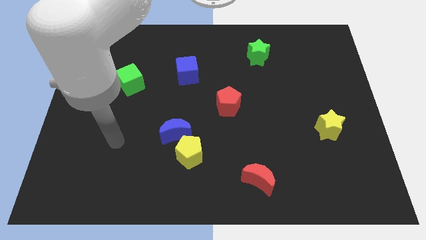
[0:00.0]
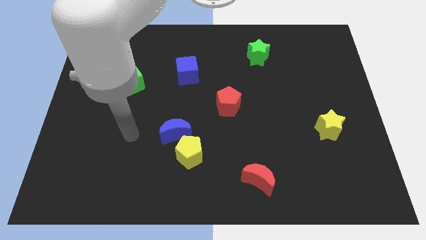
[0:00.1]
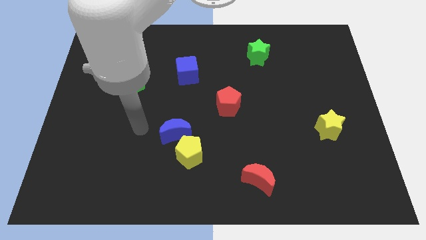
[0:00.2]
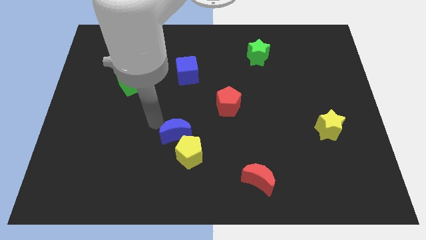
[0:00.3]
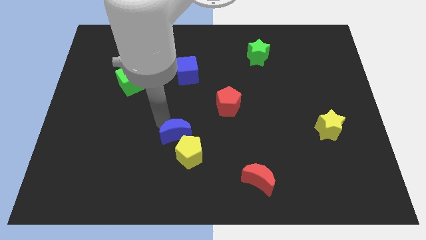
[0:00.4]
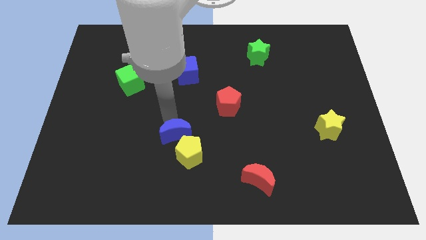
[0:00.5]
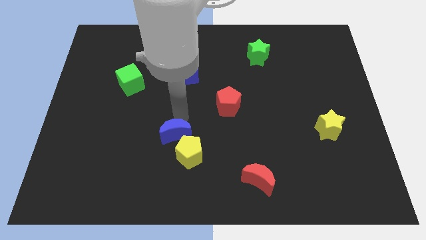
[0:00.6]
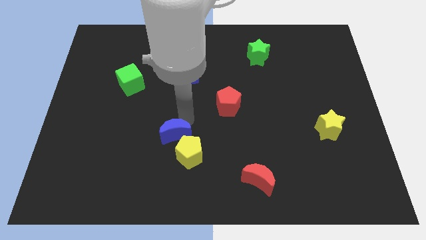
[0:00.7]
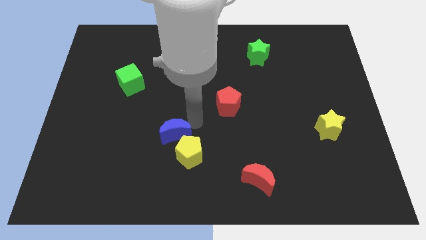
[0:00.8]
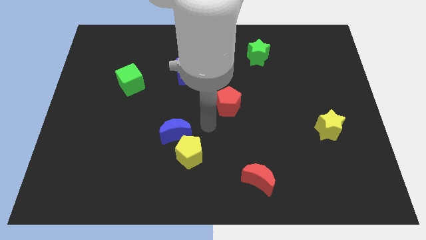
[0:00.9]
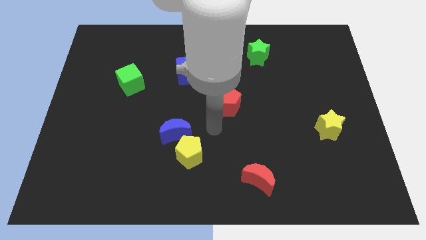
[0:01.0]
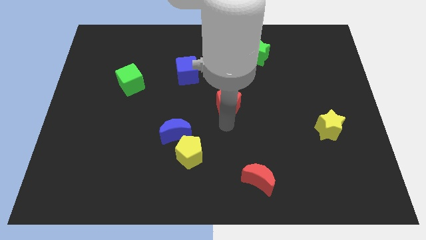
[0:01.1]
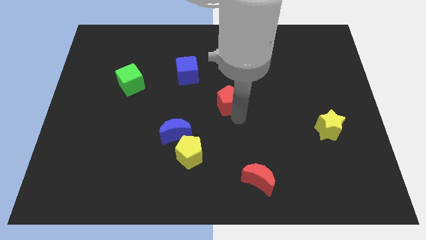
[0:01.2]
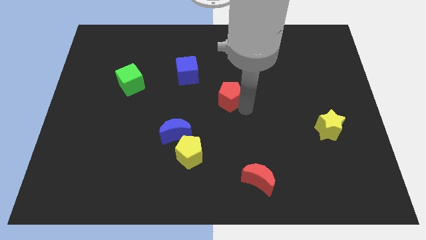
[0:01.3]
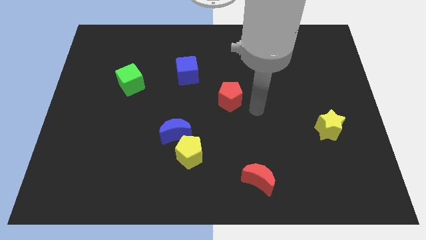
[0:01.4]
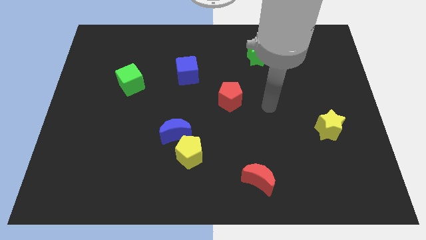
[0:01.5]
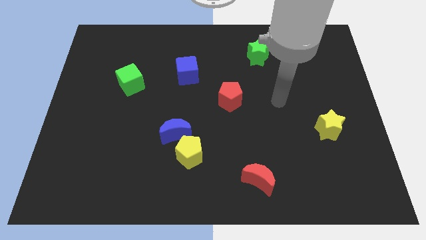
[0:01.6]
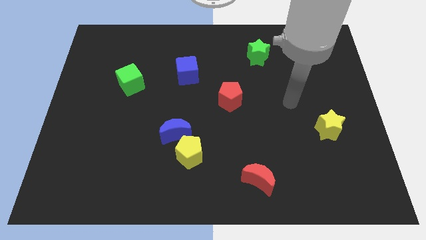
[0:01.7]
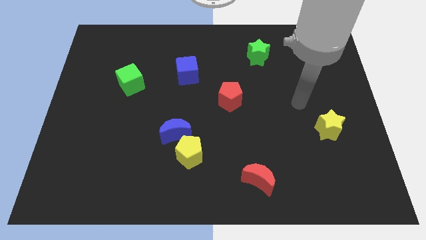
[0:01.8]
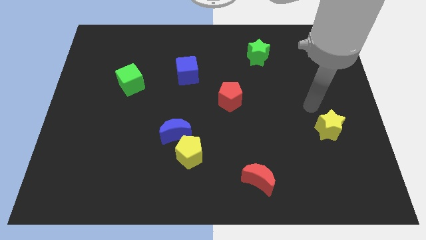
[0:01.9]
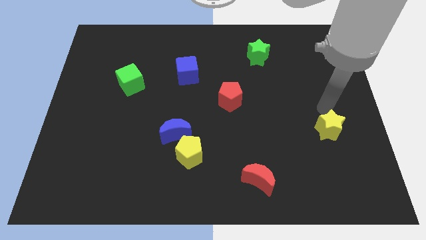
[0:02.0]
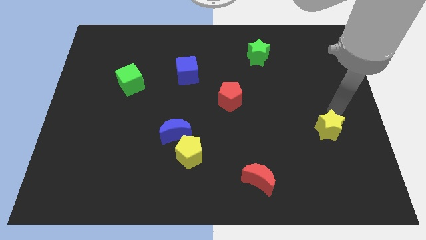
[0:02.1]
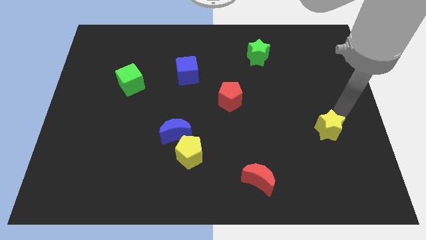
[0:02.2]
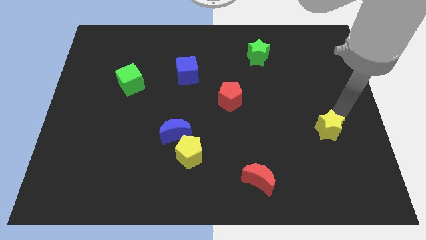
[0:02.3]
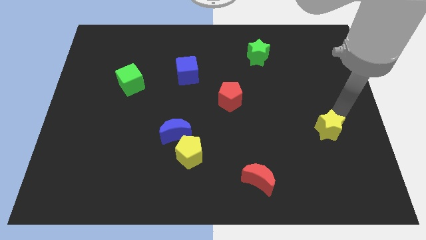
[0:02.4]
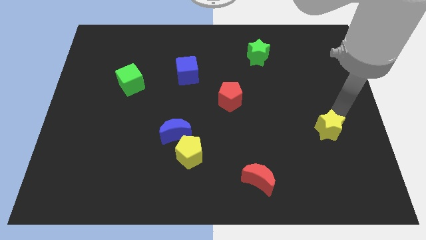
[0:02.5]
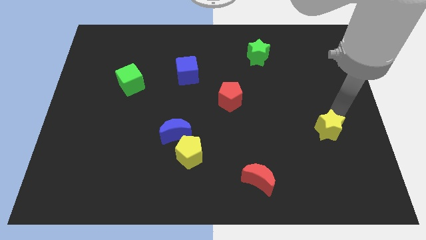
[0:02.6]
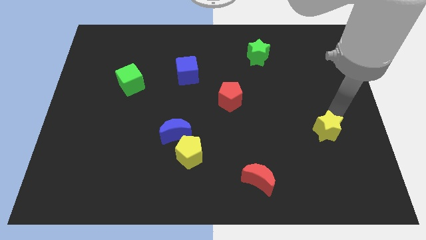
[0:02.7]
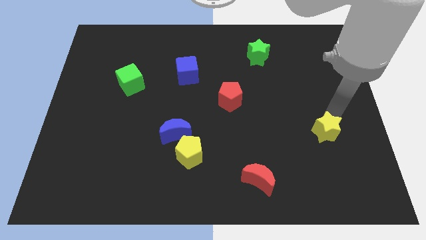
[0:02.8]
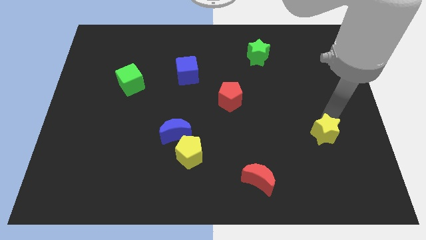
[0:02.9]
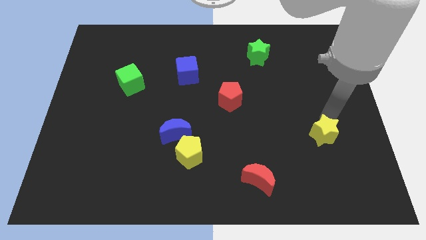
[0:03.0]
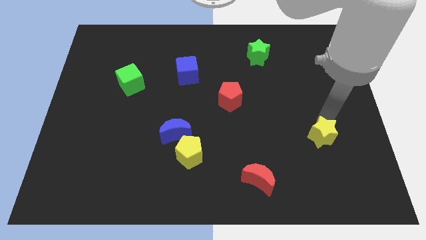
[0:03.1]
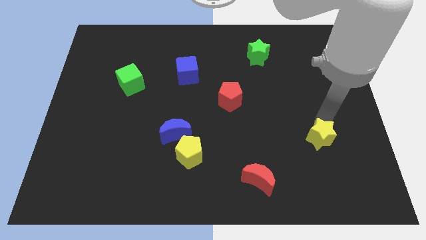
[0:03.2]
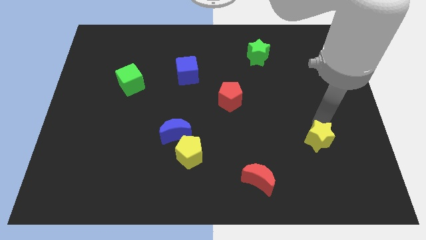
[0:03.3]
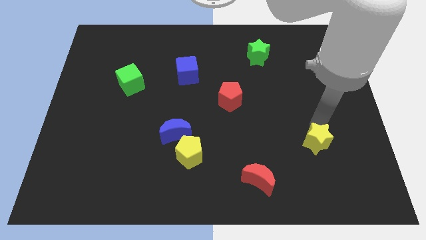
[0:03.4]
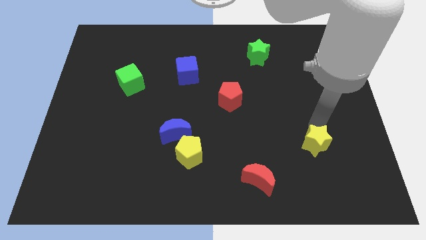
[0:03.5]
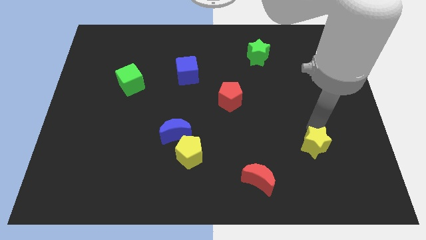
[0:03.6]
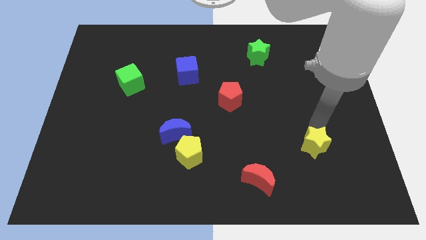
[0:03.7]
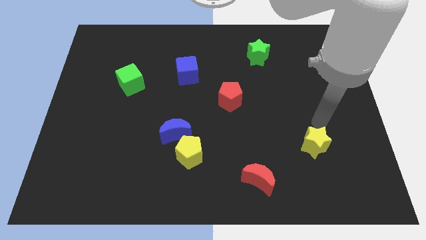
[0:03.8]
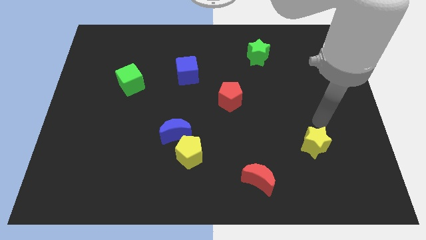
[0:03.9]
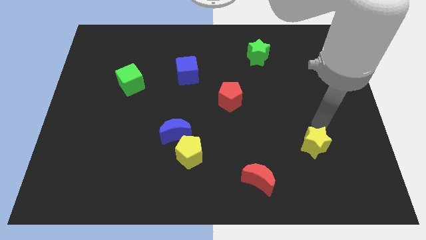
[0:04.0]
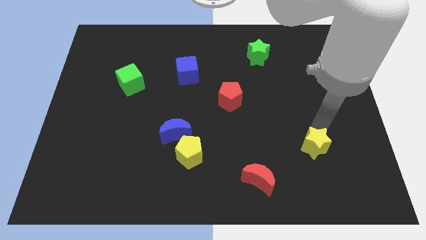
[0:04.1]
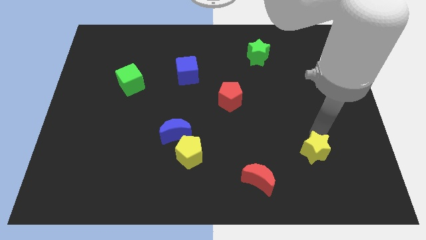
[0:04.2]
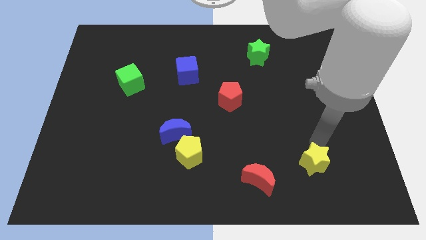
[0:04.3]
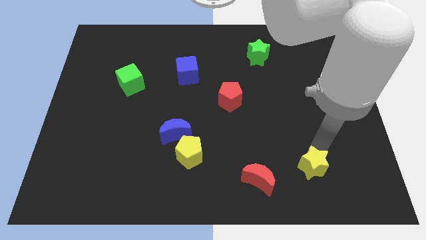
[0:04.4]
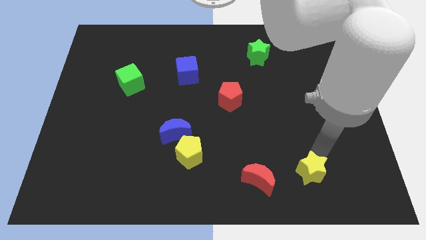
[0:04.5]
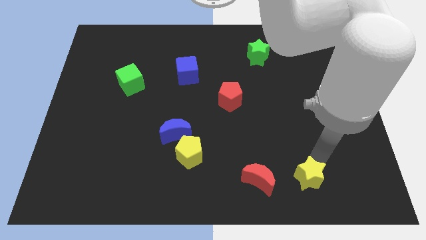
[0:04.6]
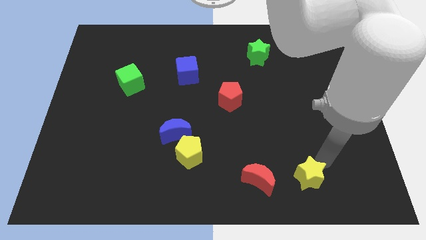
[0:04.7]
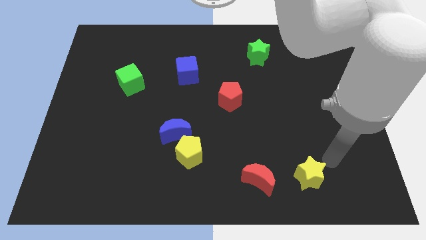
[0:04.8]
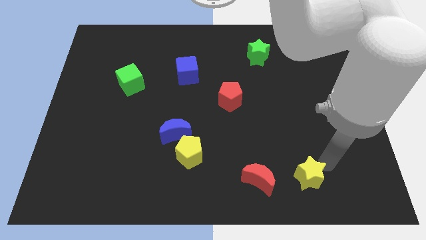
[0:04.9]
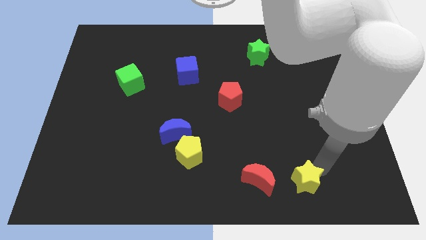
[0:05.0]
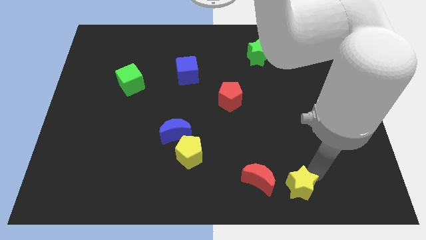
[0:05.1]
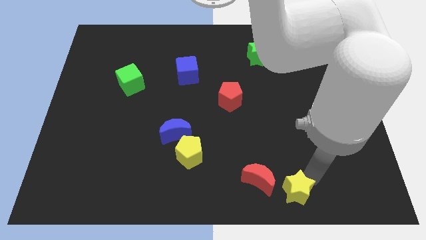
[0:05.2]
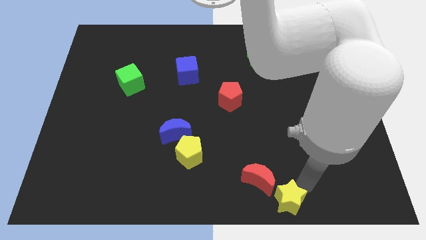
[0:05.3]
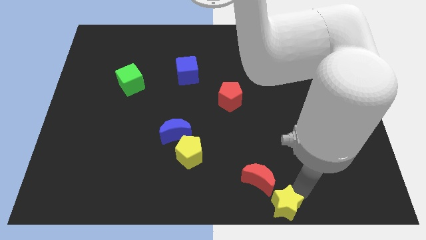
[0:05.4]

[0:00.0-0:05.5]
push the yellow star to the bottom side

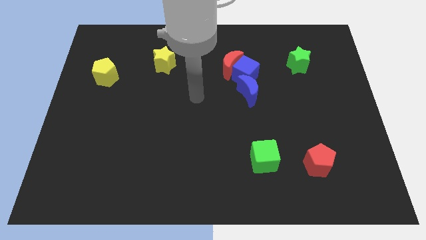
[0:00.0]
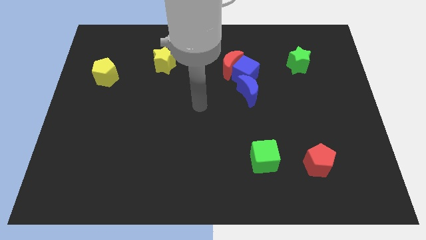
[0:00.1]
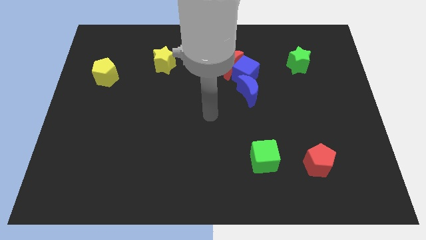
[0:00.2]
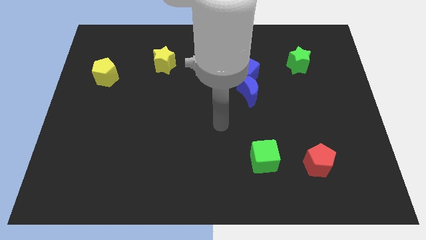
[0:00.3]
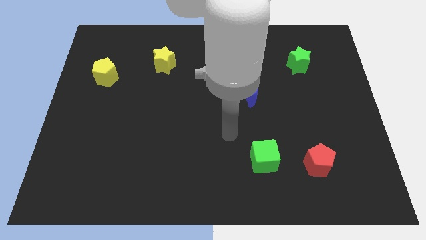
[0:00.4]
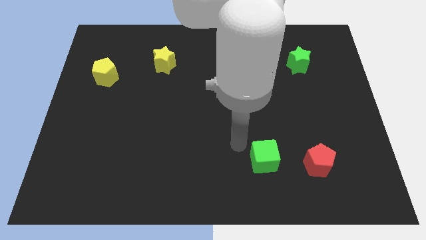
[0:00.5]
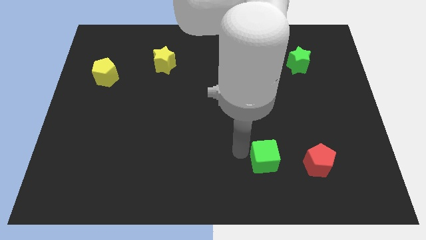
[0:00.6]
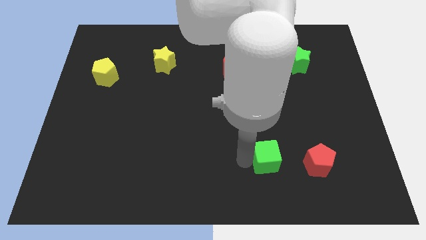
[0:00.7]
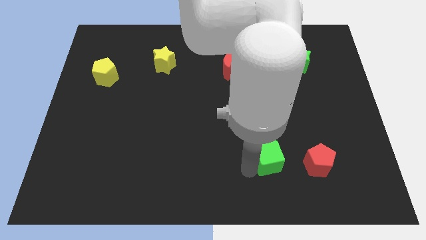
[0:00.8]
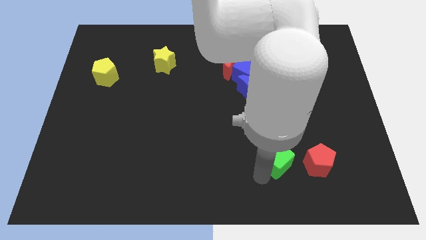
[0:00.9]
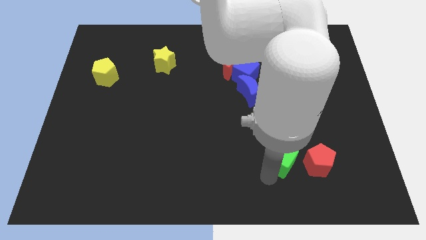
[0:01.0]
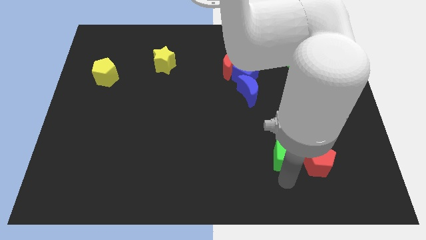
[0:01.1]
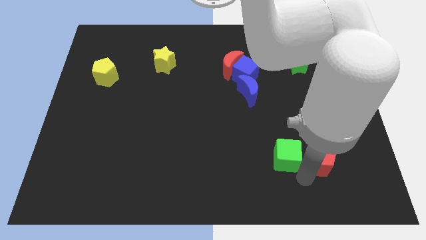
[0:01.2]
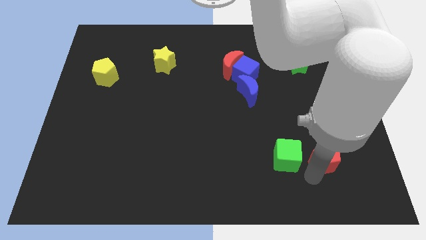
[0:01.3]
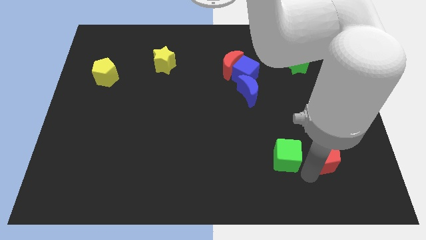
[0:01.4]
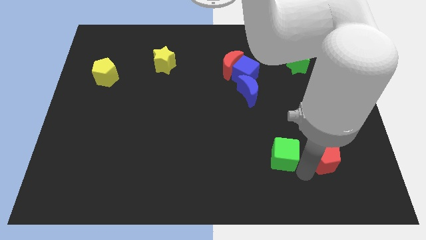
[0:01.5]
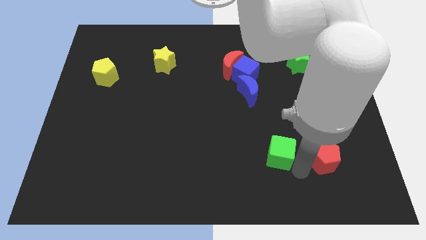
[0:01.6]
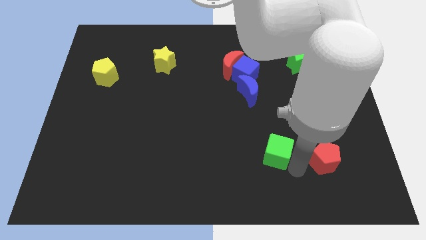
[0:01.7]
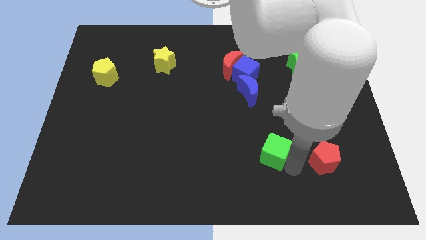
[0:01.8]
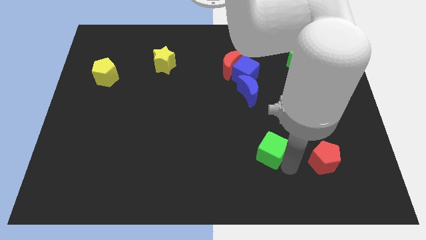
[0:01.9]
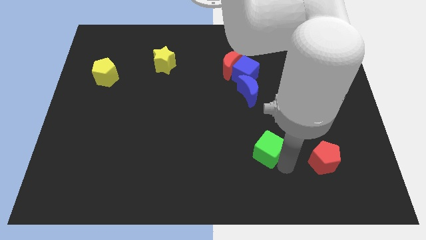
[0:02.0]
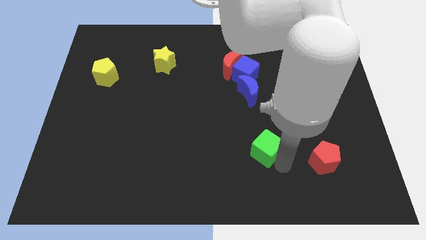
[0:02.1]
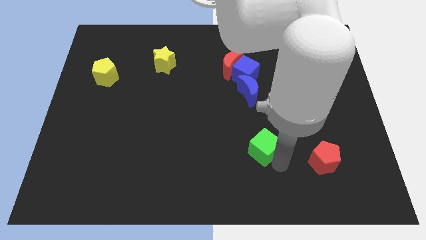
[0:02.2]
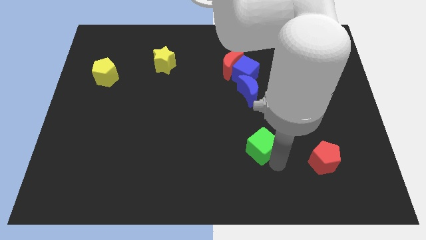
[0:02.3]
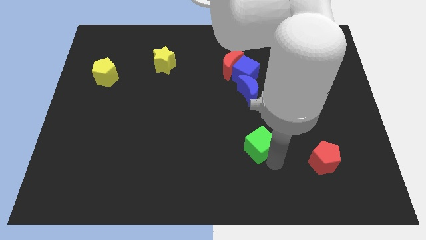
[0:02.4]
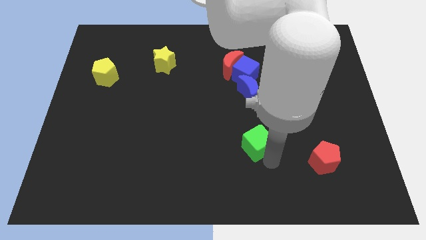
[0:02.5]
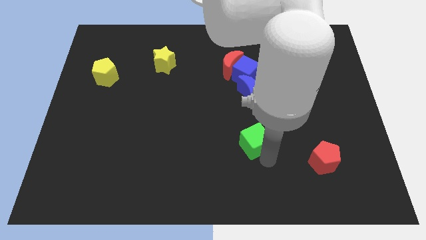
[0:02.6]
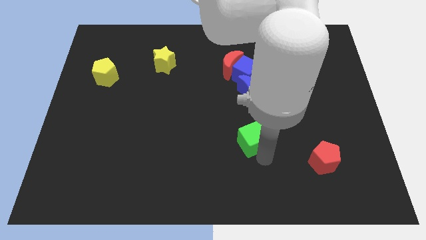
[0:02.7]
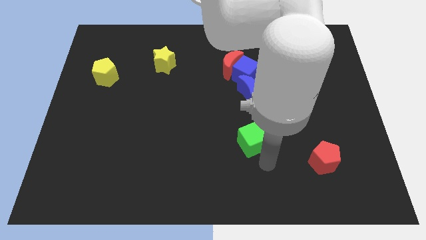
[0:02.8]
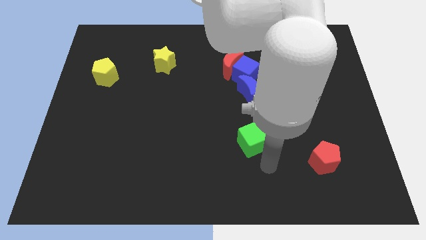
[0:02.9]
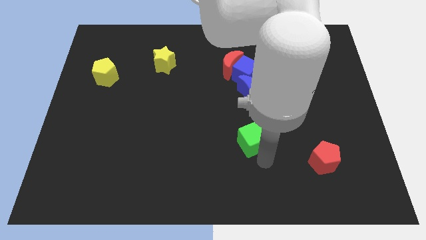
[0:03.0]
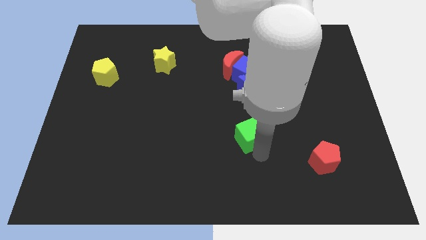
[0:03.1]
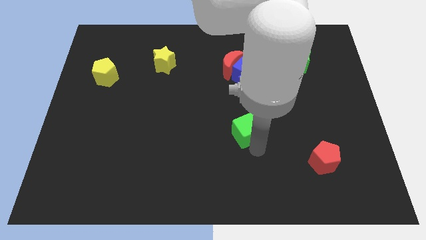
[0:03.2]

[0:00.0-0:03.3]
push the green cube to the center
